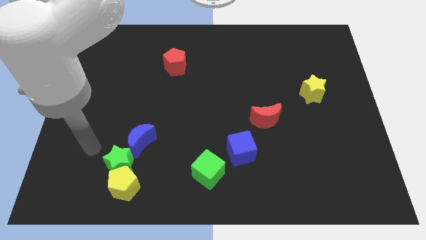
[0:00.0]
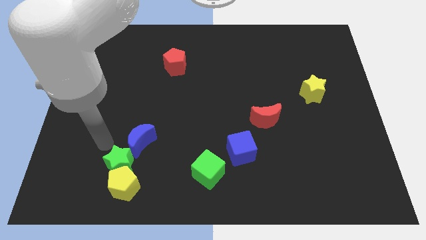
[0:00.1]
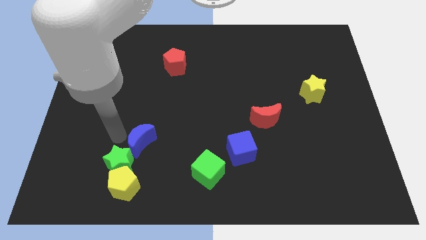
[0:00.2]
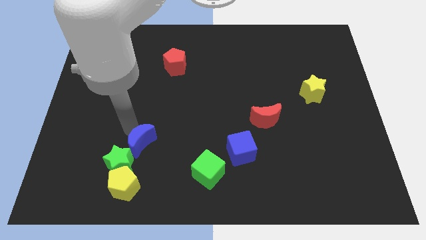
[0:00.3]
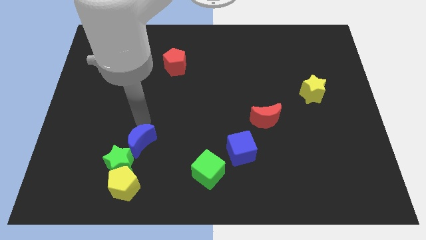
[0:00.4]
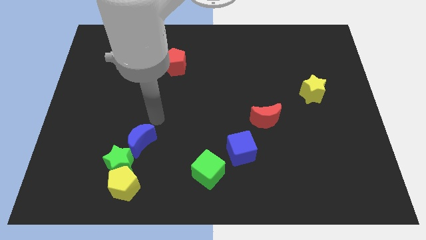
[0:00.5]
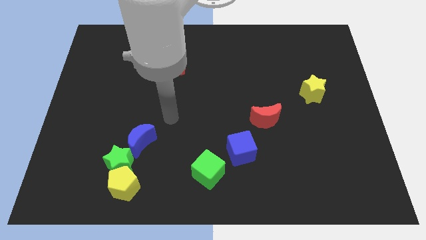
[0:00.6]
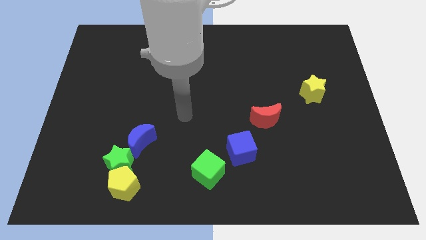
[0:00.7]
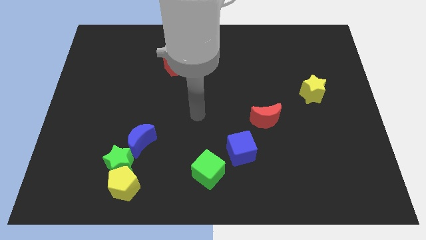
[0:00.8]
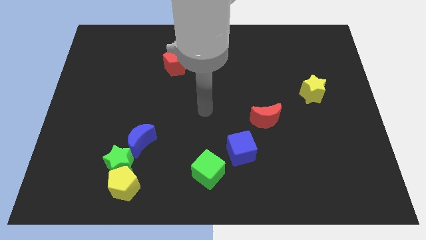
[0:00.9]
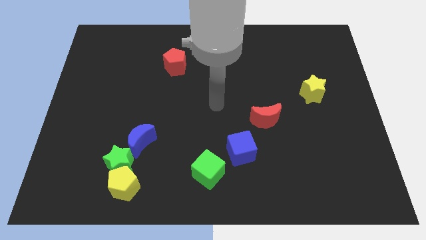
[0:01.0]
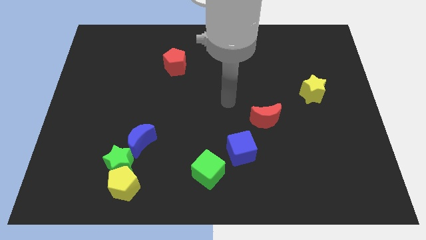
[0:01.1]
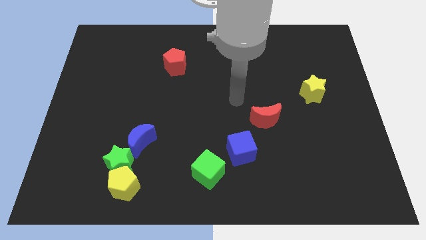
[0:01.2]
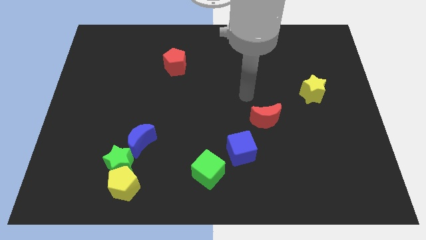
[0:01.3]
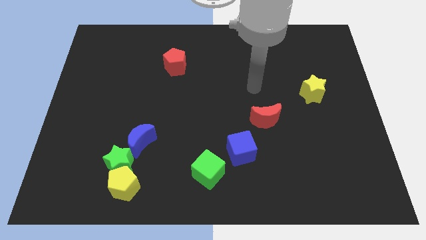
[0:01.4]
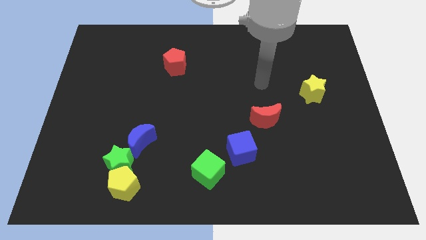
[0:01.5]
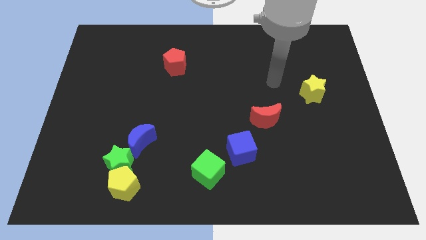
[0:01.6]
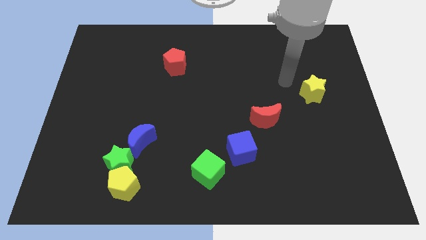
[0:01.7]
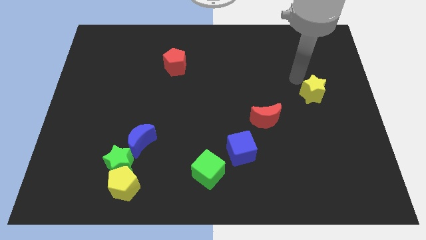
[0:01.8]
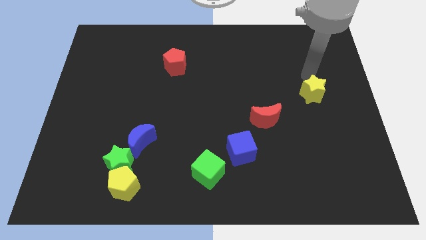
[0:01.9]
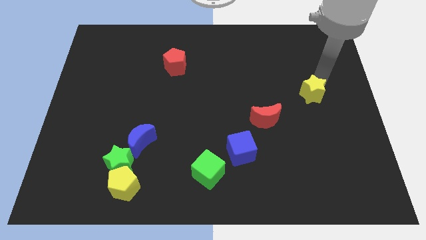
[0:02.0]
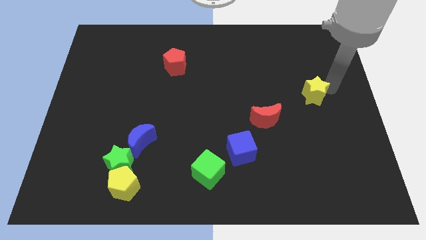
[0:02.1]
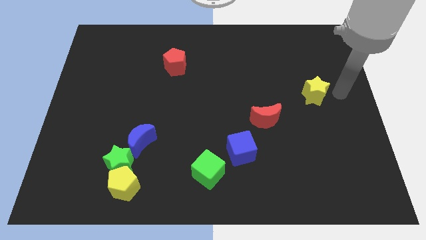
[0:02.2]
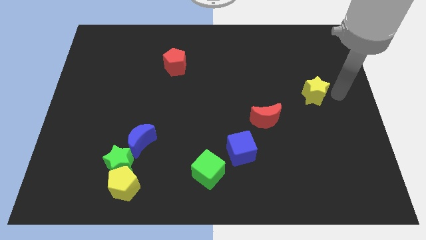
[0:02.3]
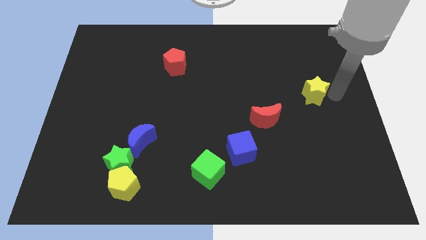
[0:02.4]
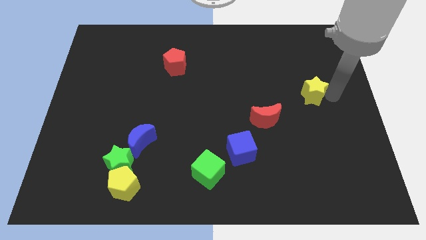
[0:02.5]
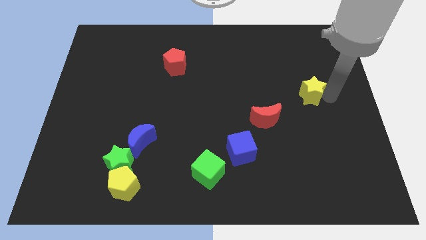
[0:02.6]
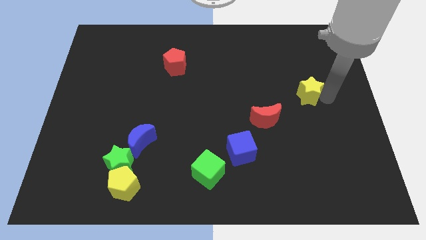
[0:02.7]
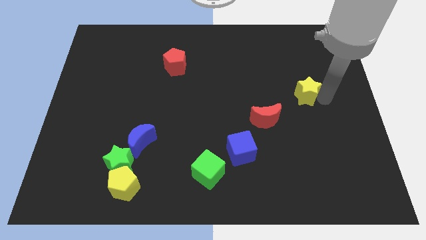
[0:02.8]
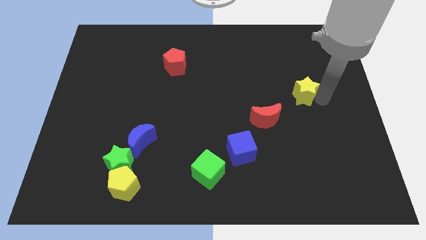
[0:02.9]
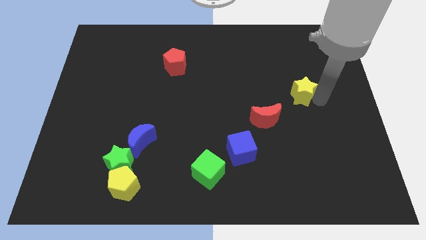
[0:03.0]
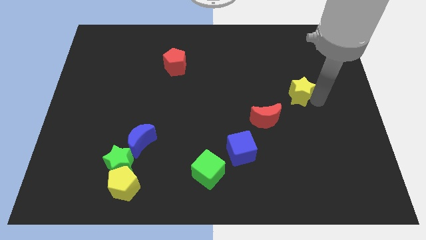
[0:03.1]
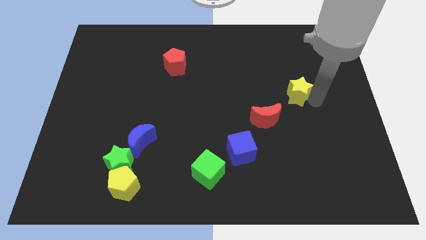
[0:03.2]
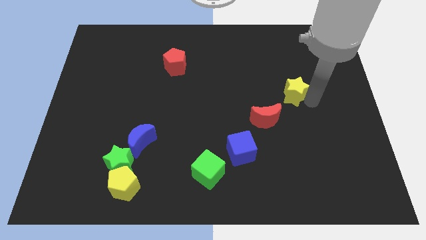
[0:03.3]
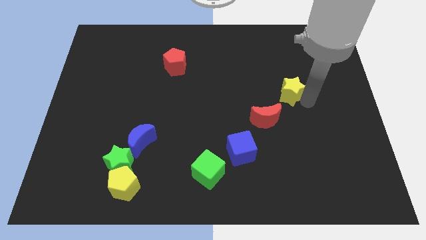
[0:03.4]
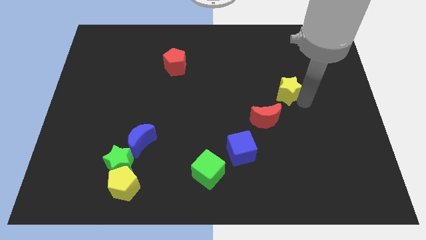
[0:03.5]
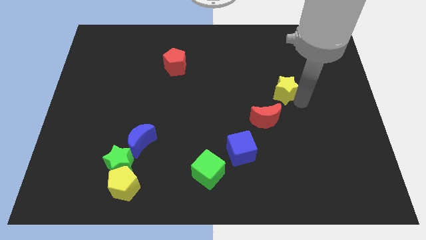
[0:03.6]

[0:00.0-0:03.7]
push the yellow star left a little bit

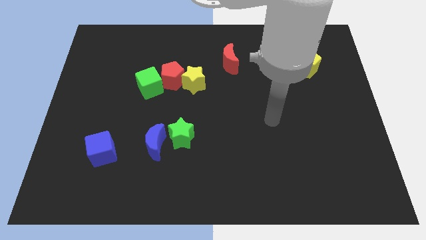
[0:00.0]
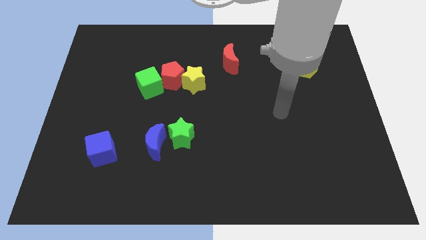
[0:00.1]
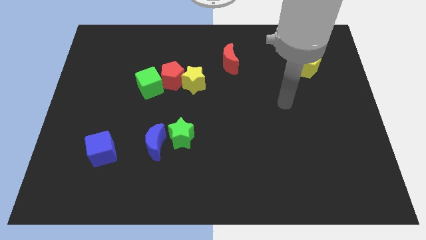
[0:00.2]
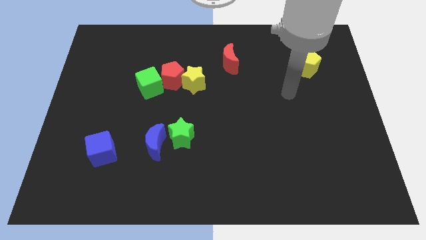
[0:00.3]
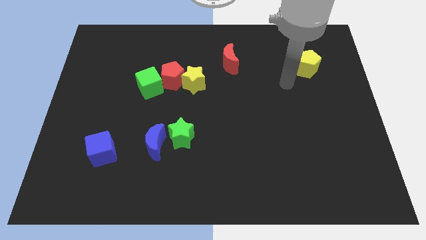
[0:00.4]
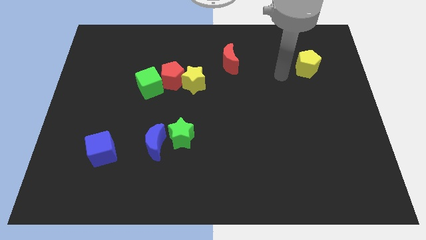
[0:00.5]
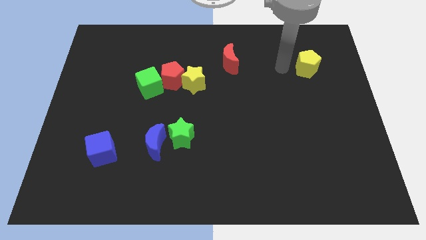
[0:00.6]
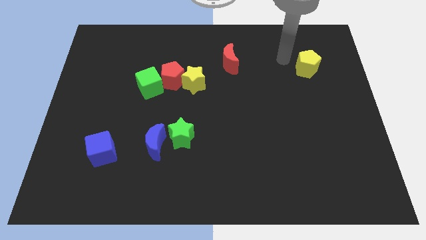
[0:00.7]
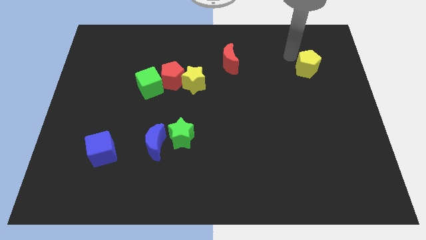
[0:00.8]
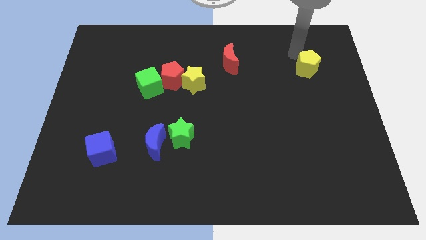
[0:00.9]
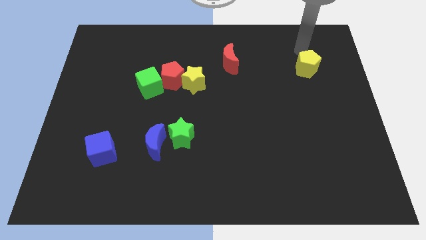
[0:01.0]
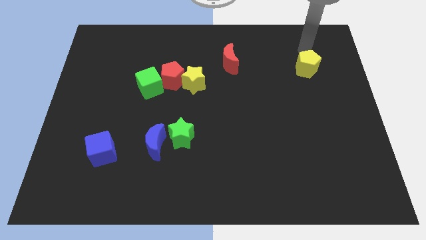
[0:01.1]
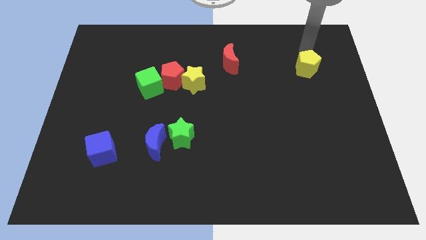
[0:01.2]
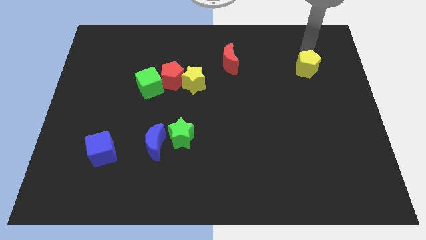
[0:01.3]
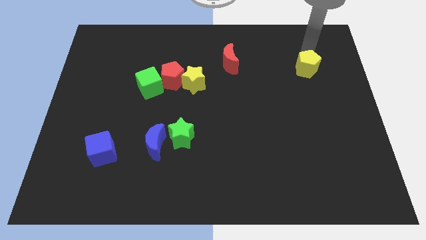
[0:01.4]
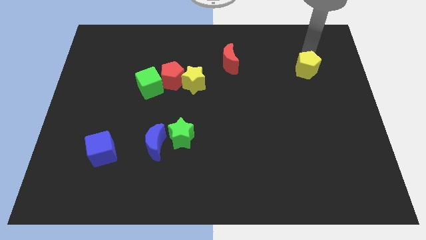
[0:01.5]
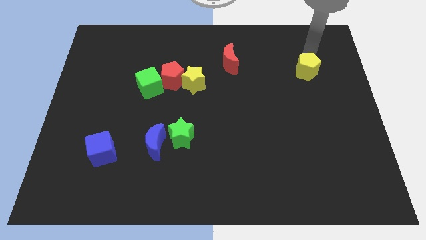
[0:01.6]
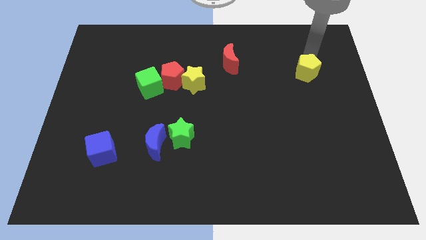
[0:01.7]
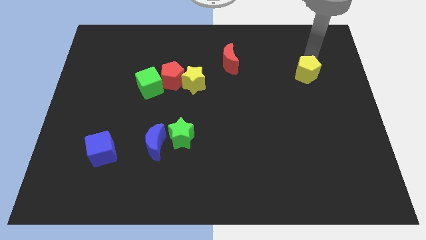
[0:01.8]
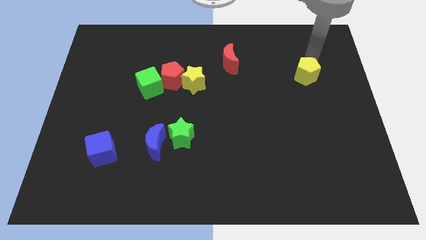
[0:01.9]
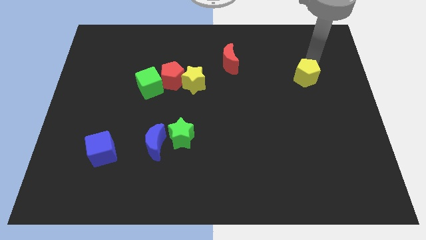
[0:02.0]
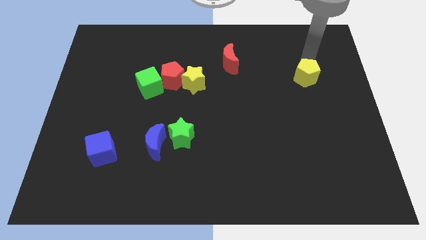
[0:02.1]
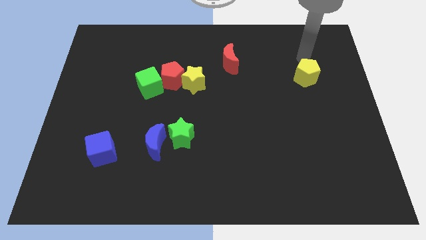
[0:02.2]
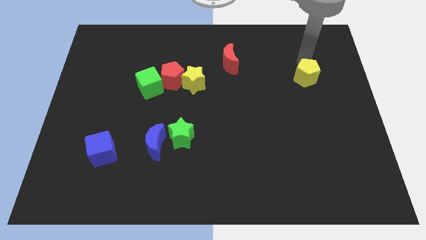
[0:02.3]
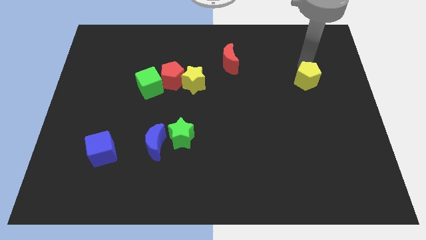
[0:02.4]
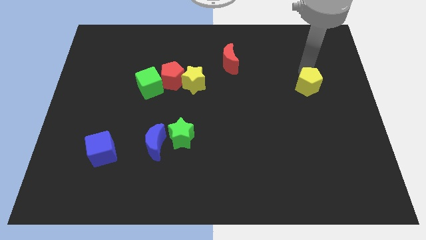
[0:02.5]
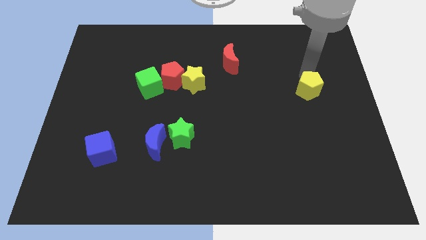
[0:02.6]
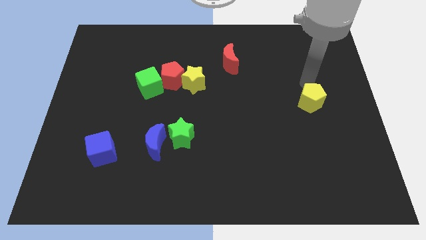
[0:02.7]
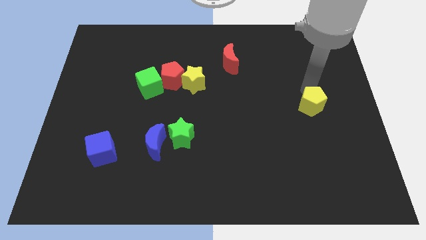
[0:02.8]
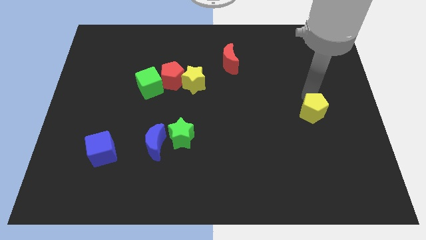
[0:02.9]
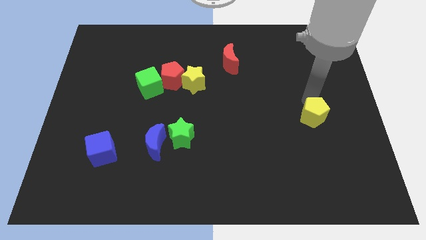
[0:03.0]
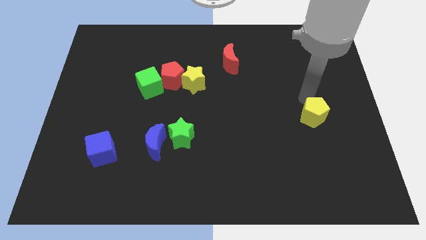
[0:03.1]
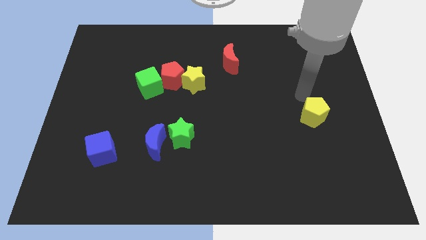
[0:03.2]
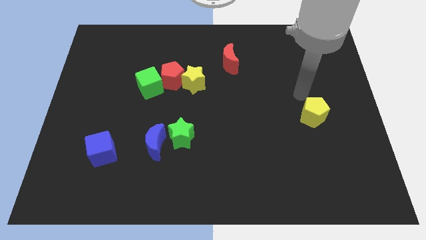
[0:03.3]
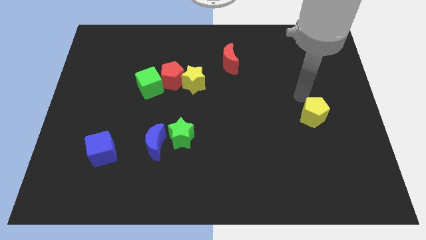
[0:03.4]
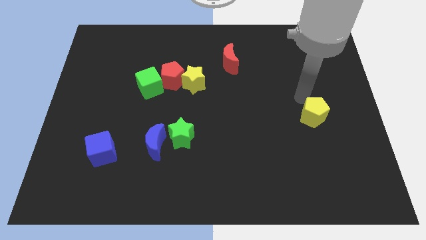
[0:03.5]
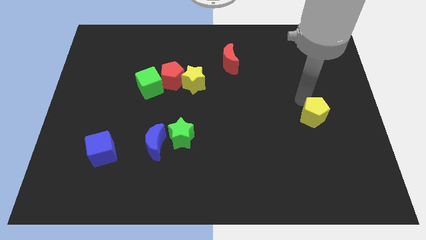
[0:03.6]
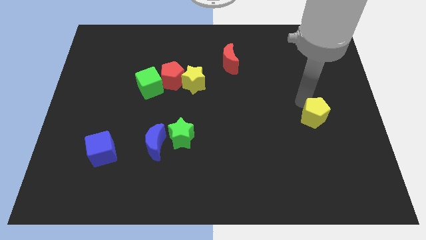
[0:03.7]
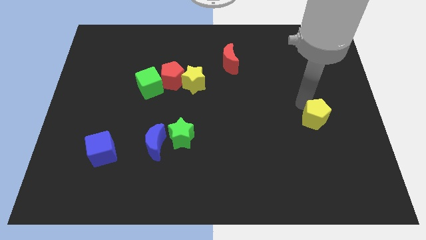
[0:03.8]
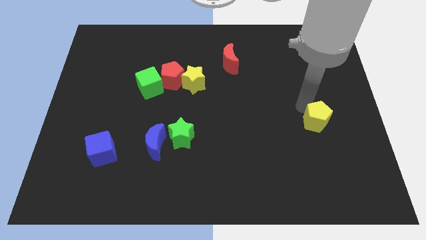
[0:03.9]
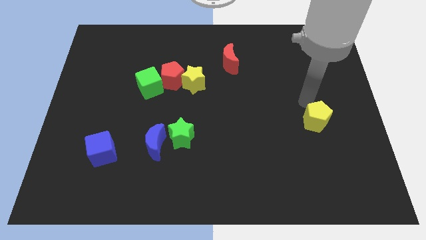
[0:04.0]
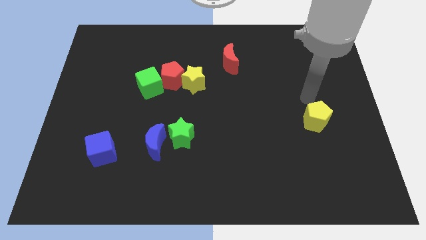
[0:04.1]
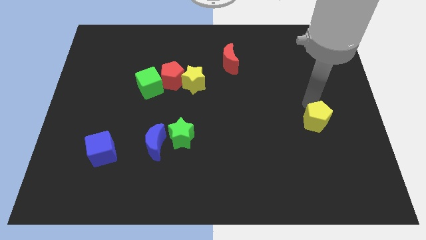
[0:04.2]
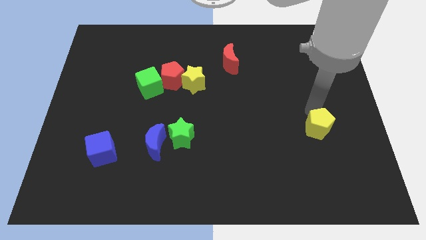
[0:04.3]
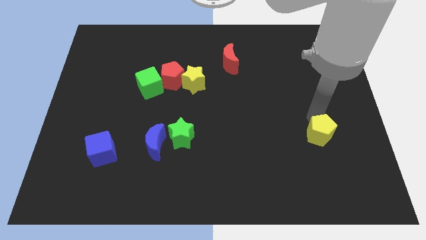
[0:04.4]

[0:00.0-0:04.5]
slide the yellow pentagon down
